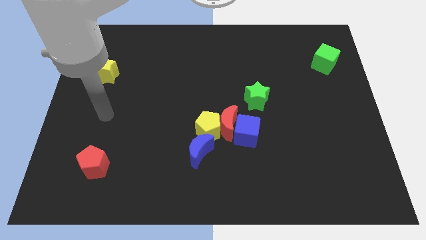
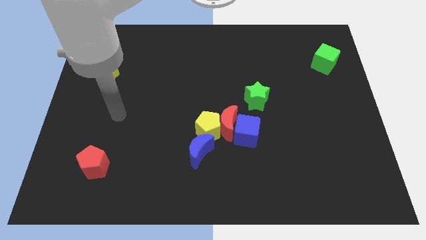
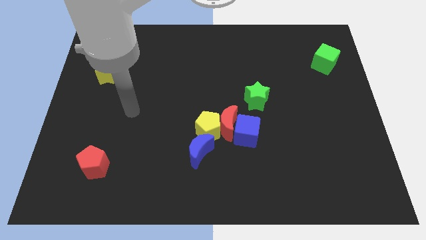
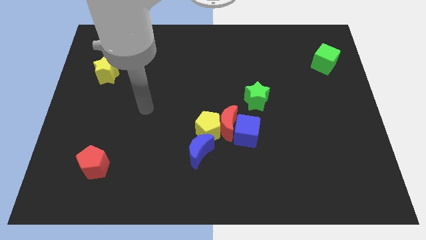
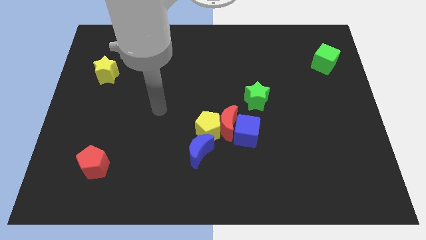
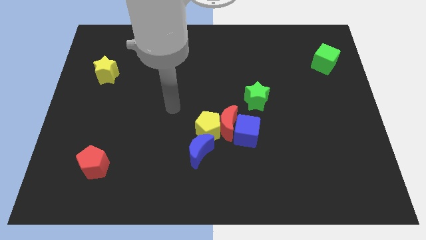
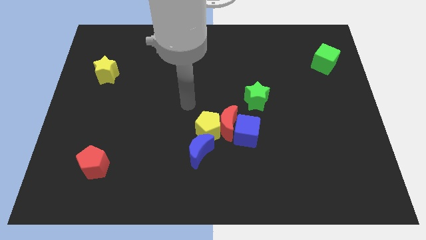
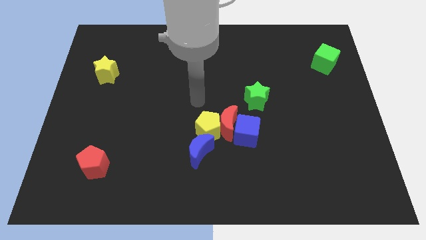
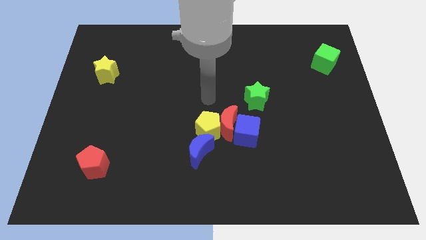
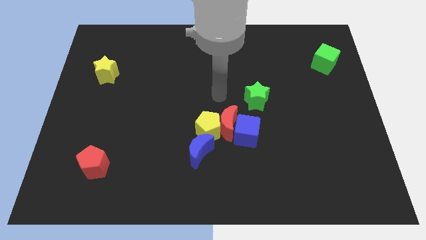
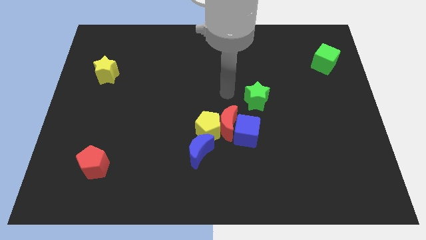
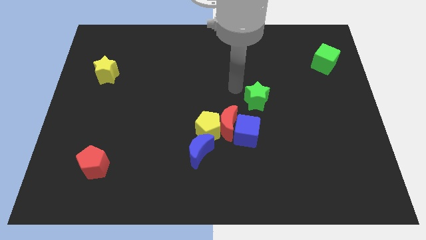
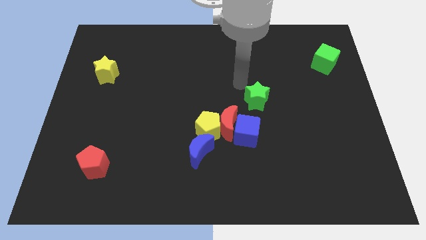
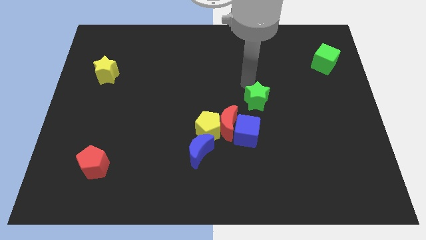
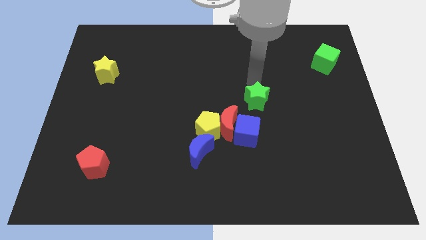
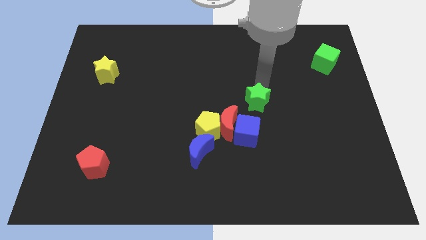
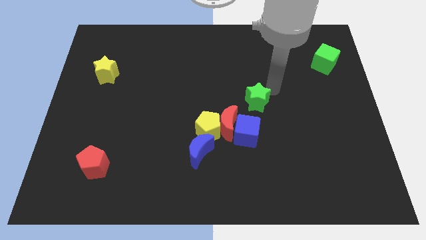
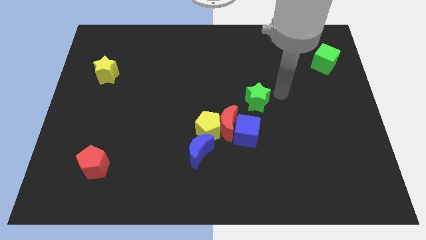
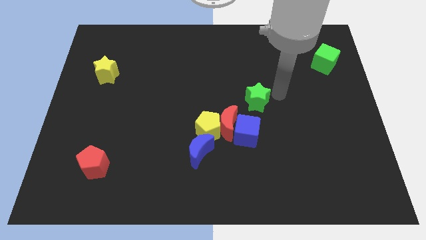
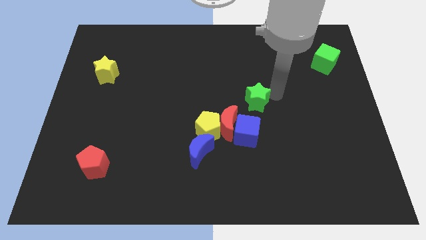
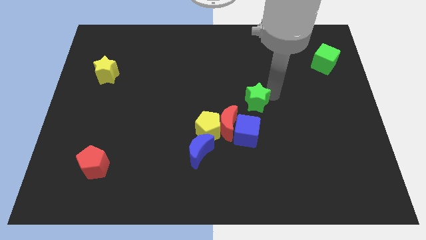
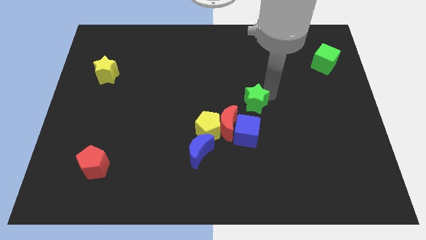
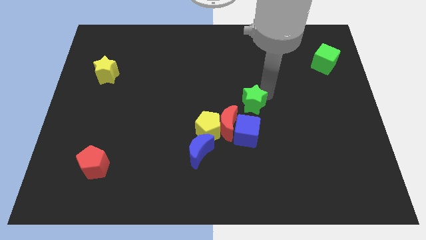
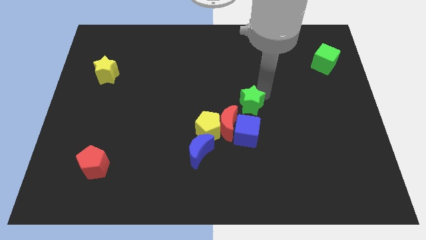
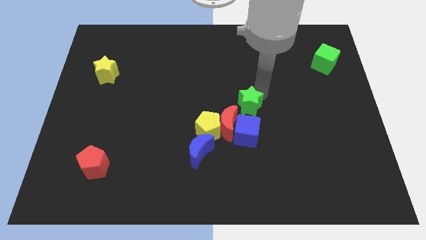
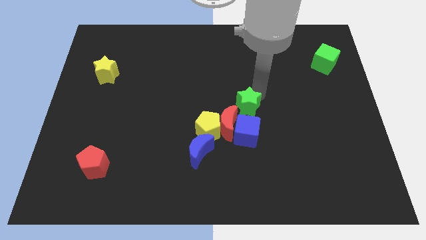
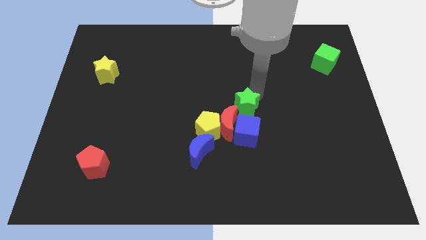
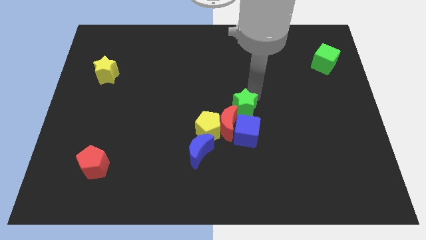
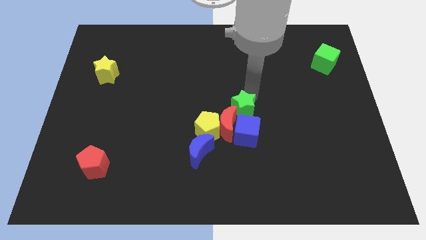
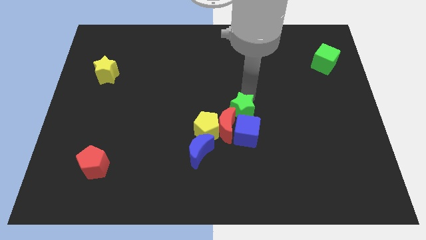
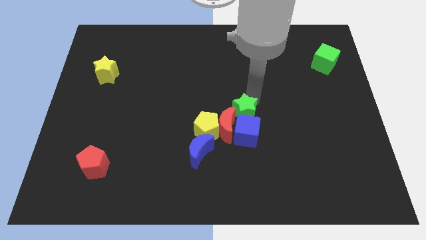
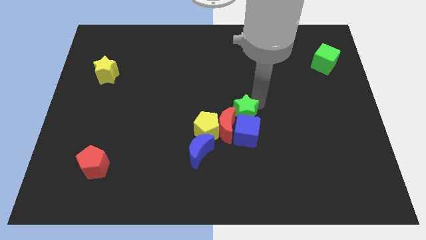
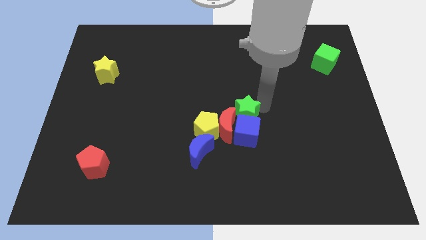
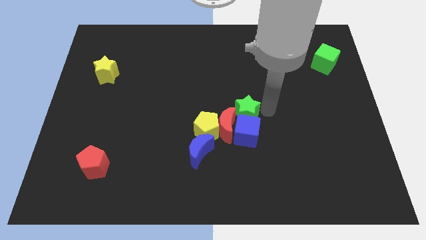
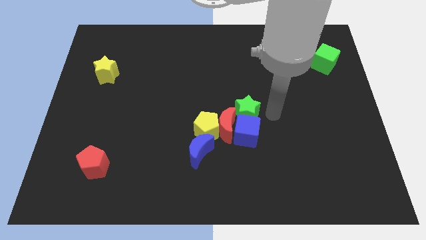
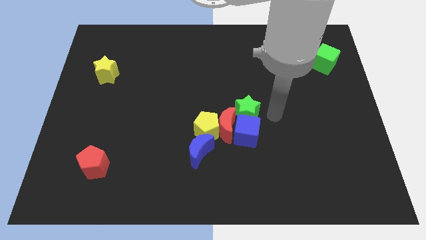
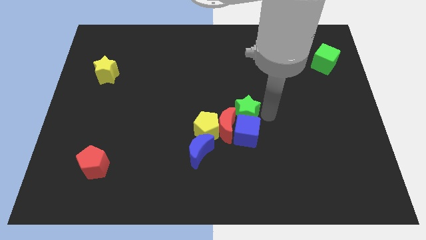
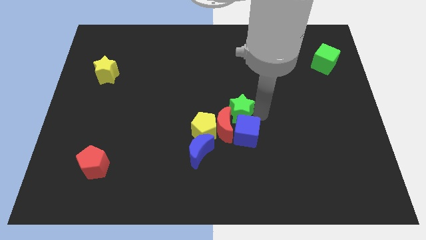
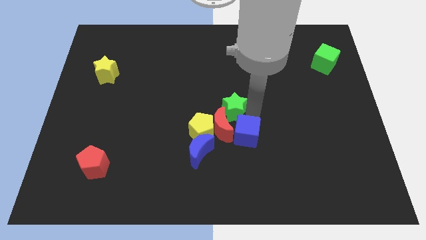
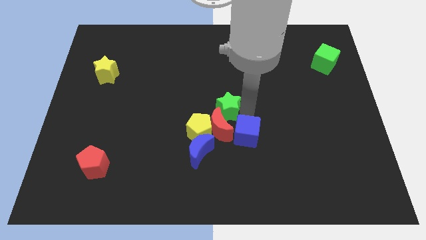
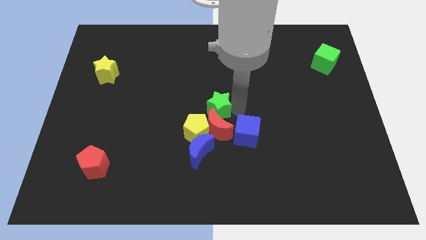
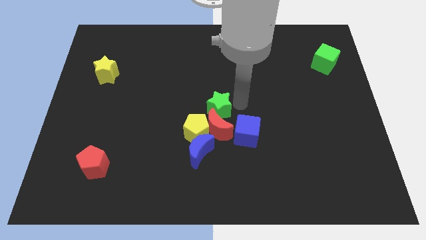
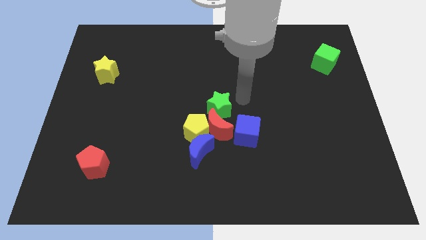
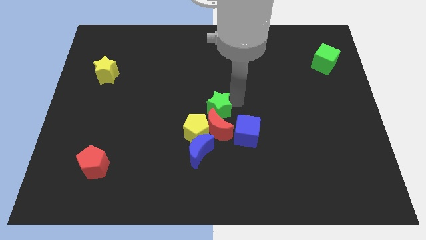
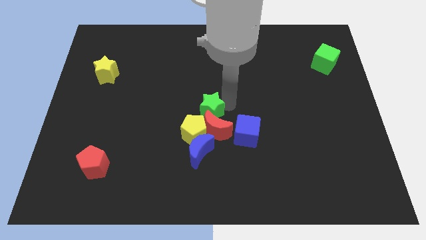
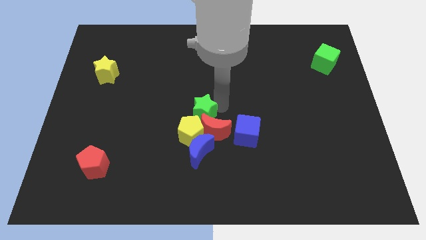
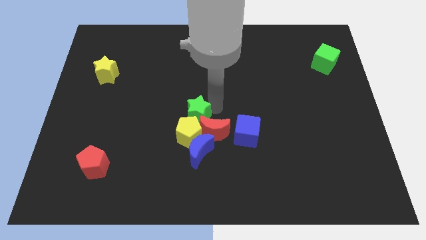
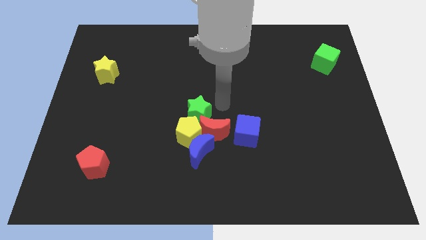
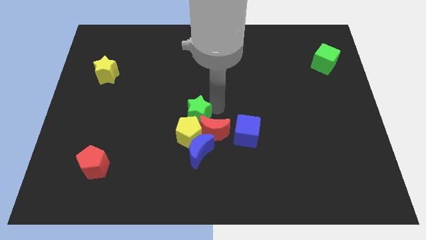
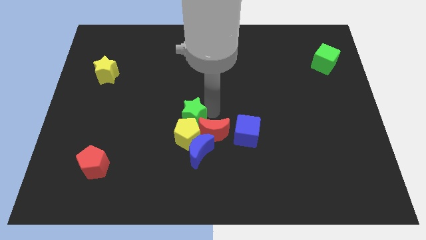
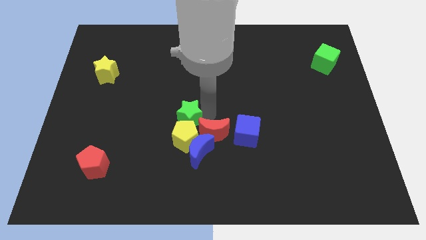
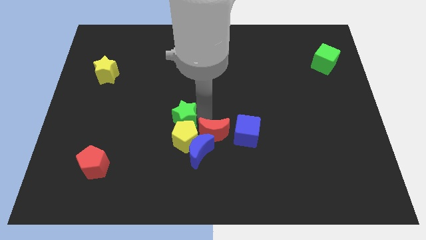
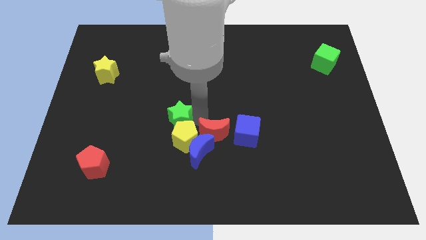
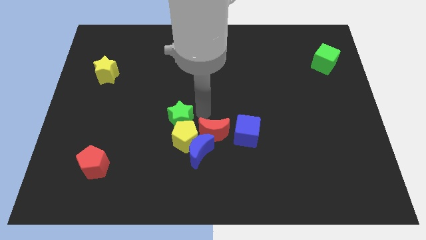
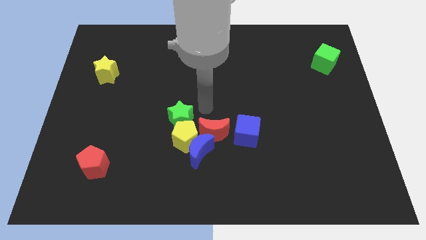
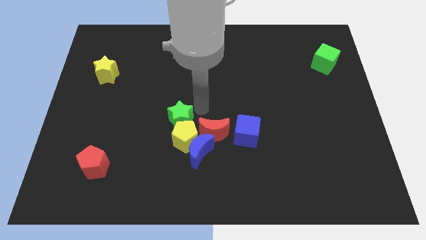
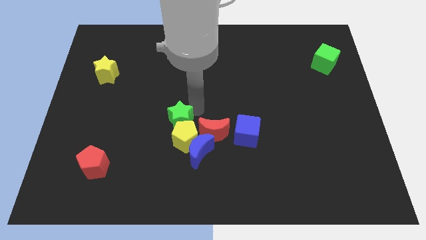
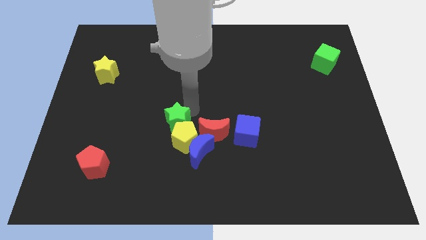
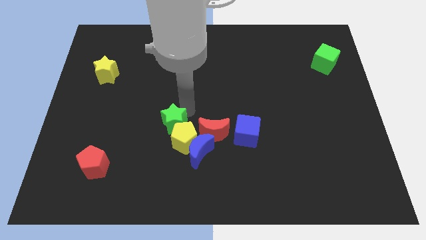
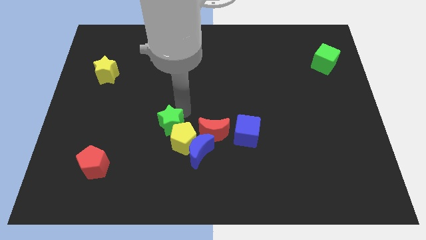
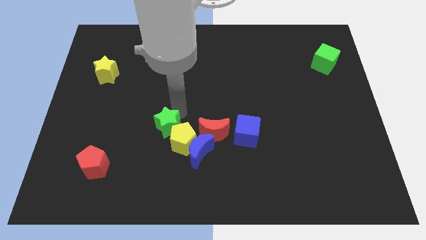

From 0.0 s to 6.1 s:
put the green star to the left side of the yellow pentagon

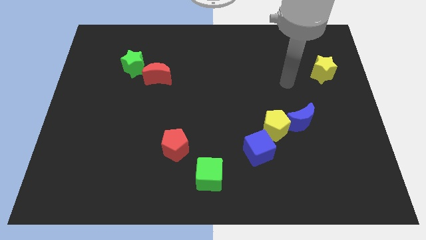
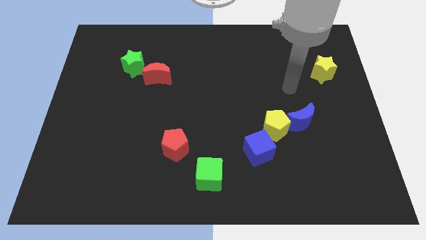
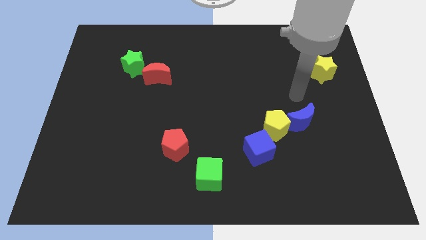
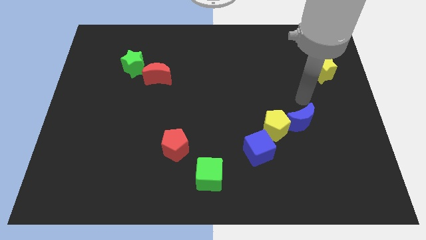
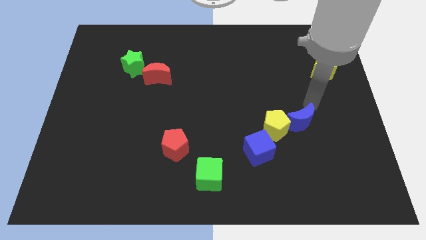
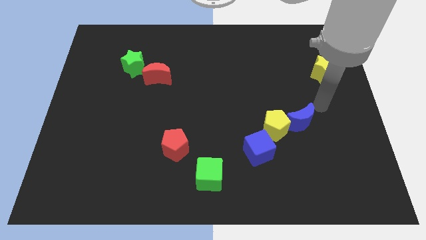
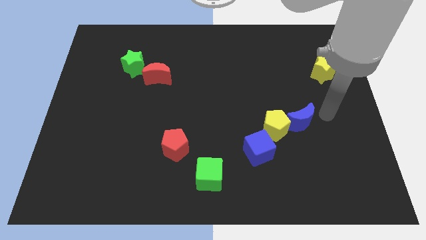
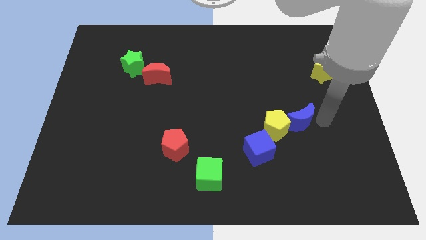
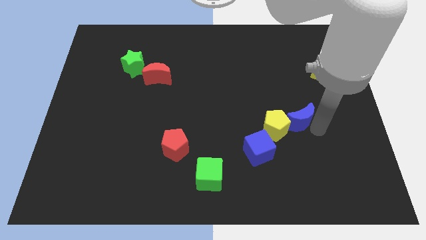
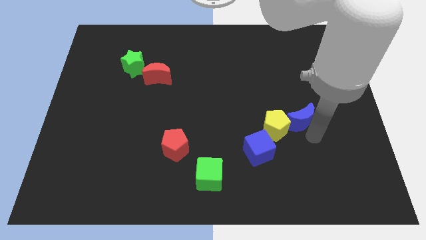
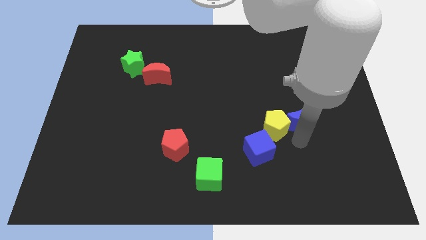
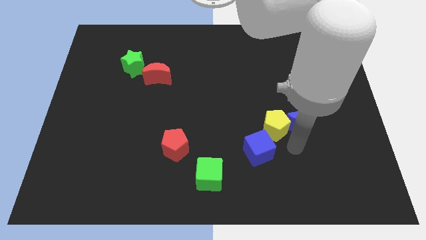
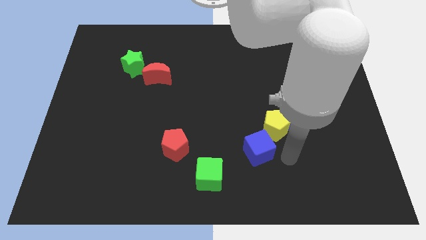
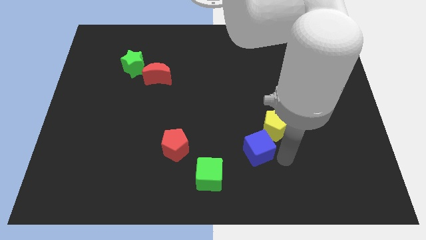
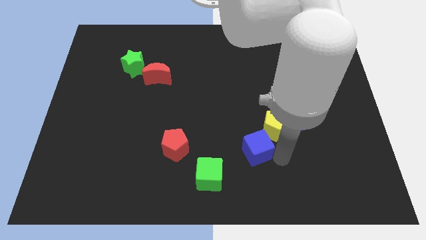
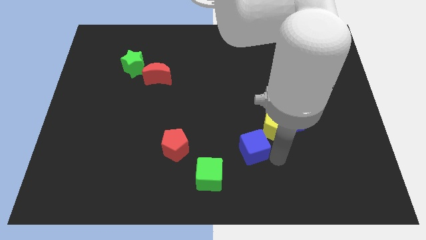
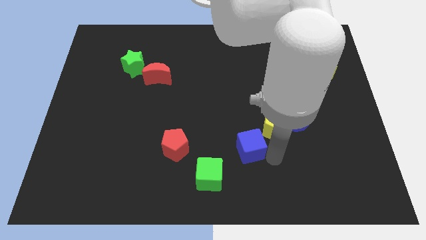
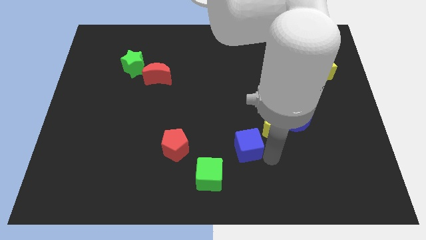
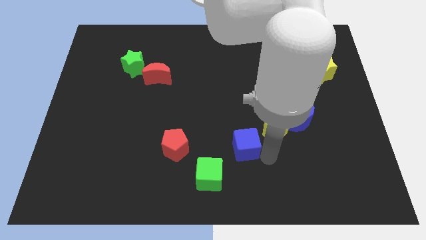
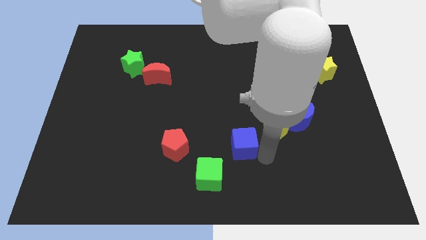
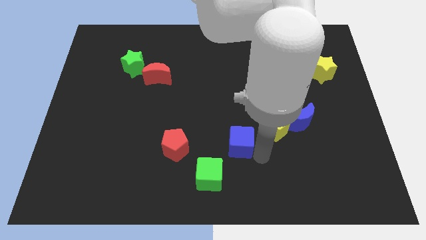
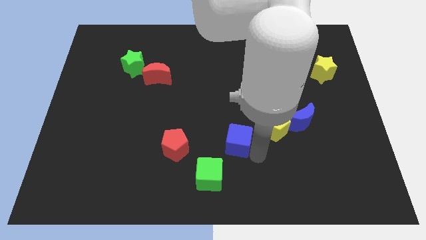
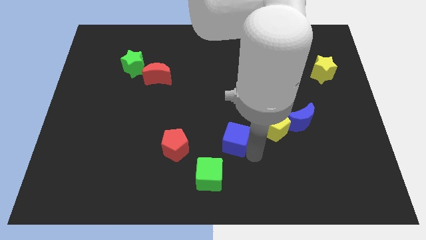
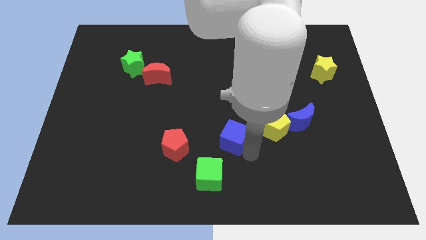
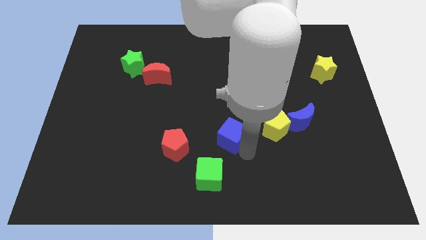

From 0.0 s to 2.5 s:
slide the blue cube to the top of the green cube

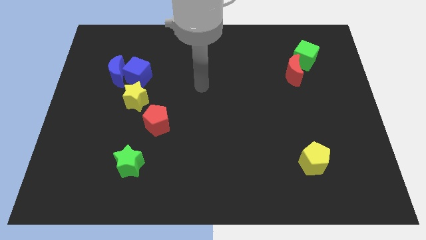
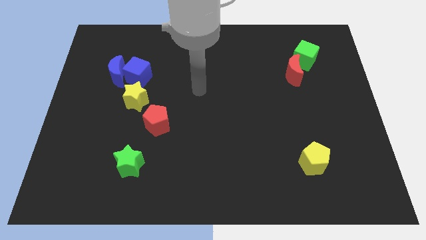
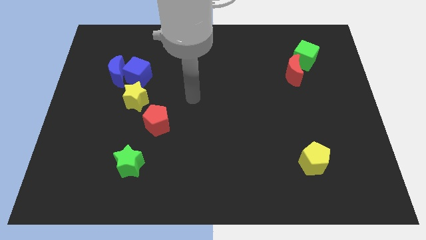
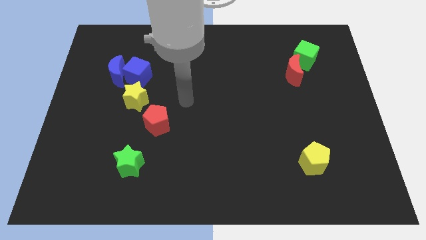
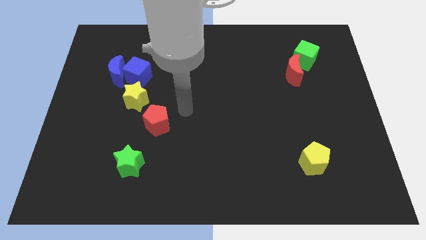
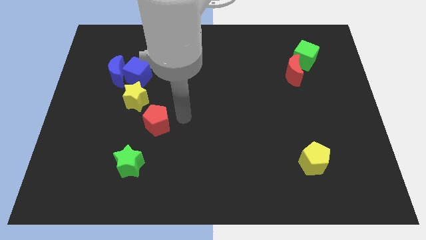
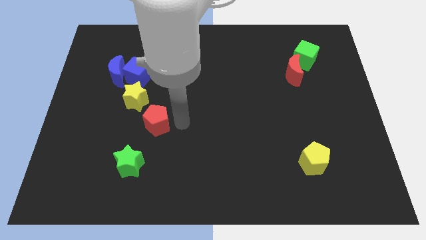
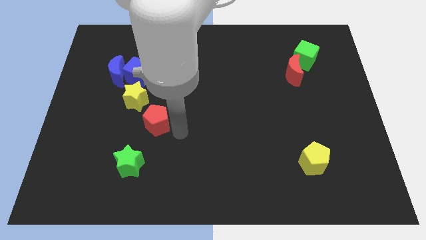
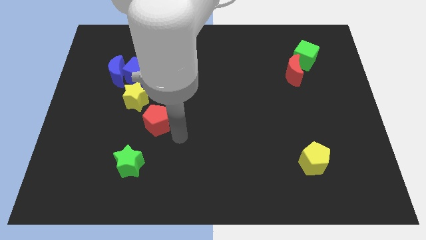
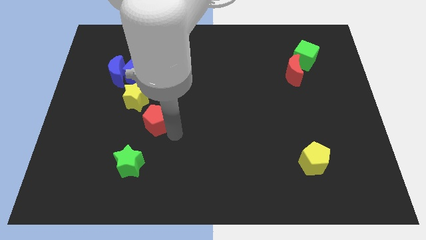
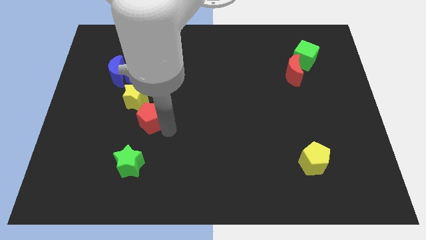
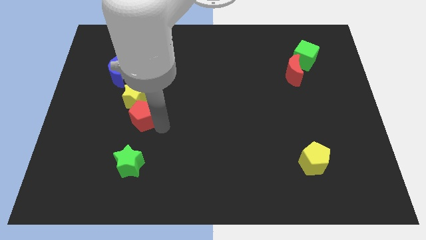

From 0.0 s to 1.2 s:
put the red pentagon to the bottom side of the blue cube
